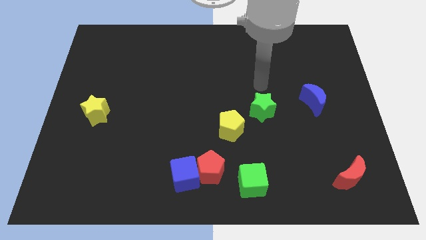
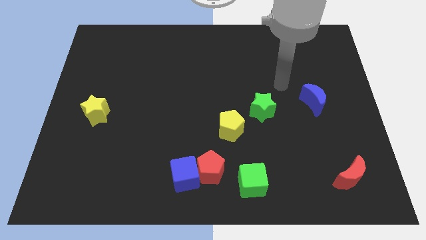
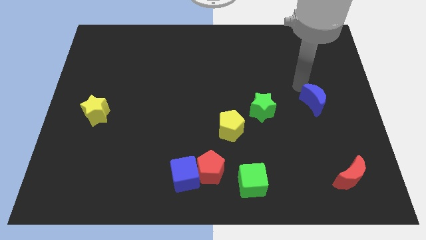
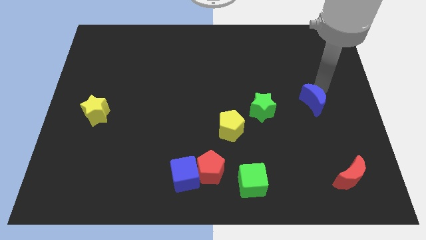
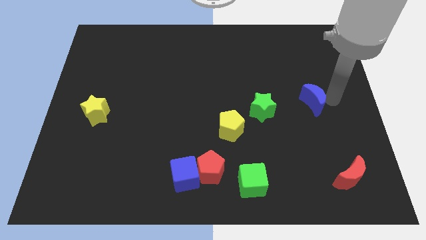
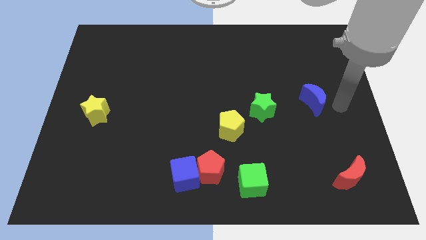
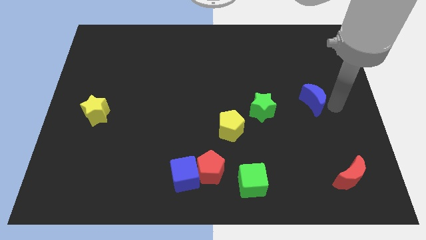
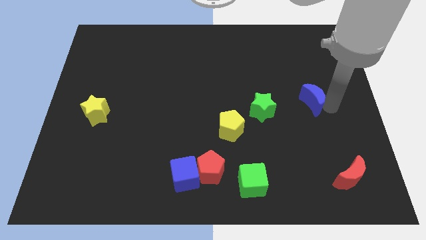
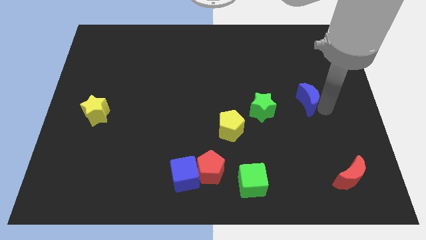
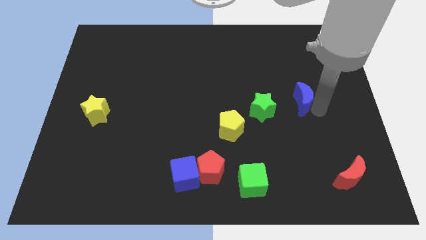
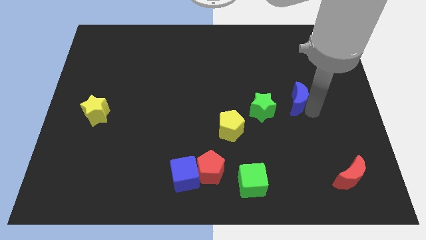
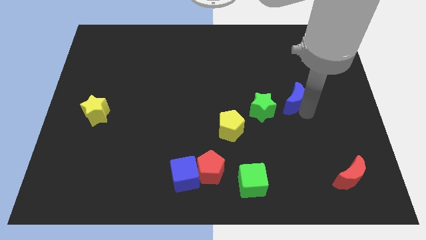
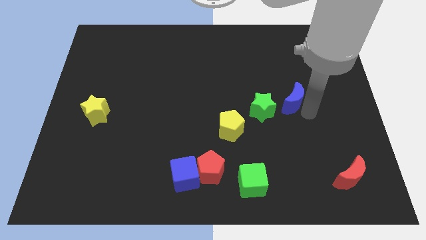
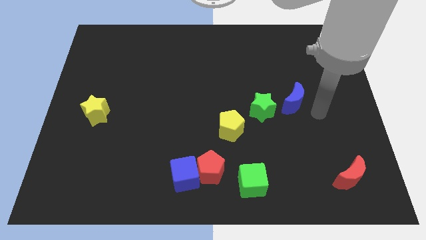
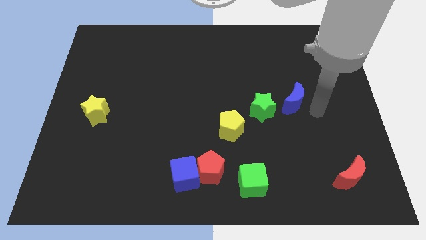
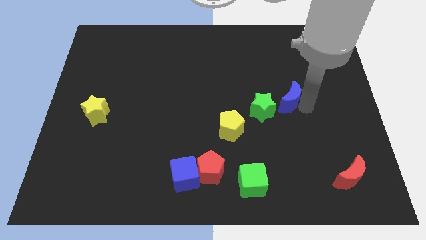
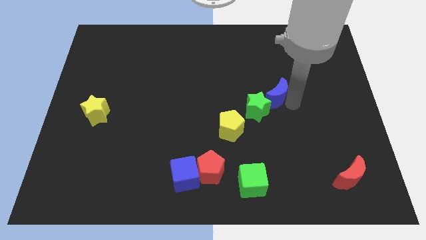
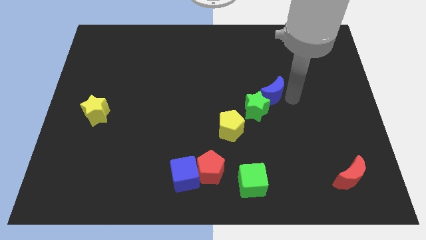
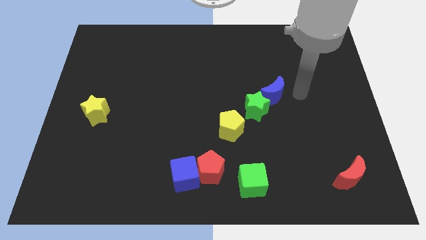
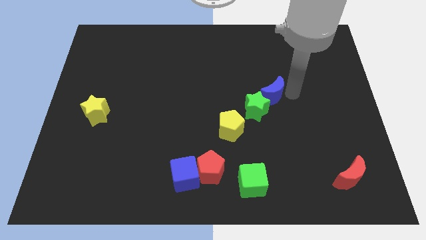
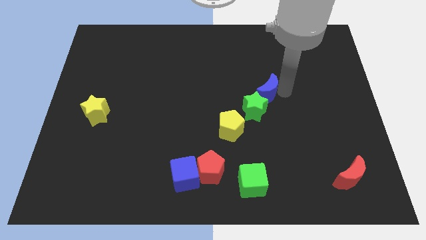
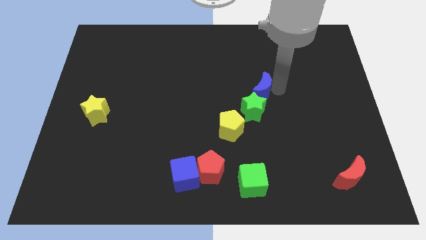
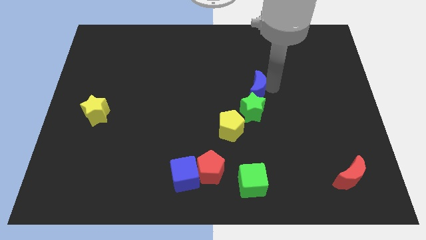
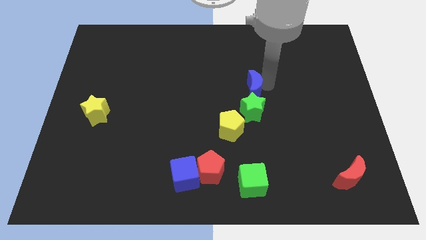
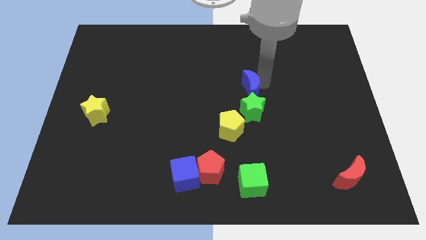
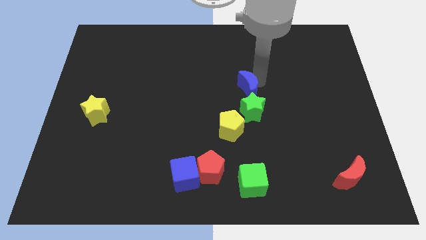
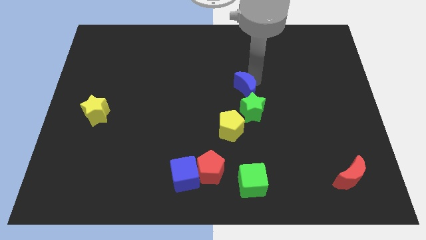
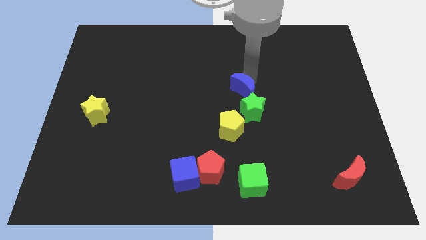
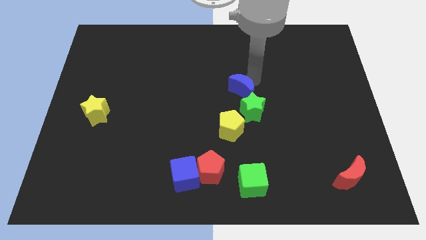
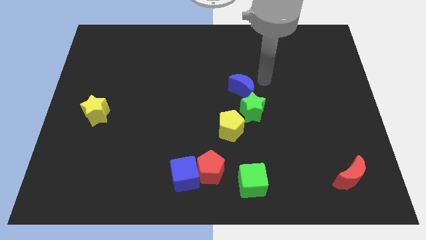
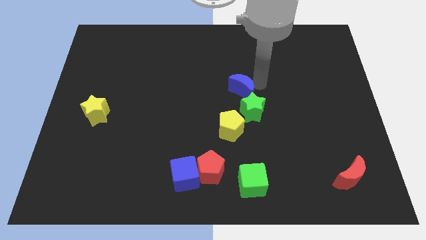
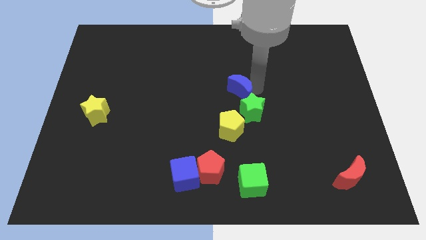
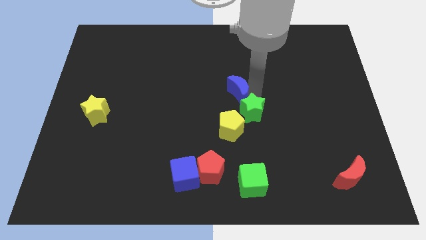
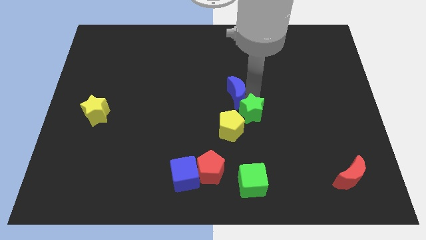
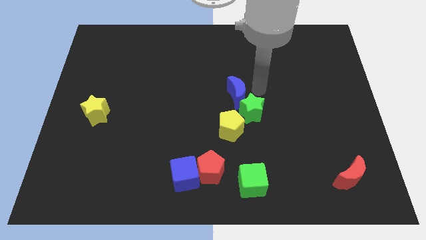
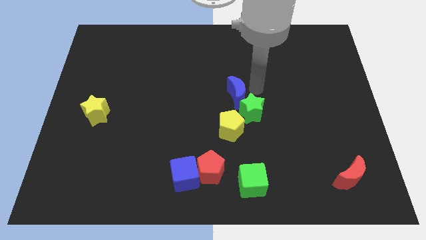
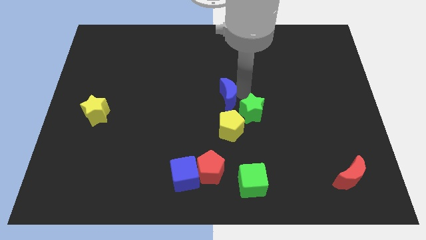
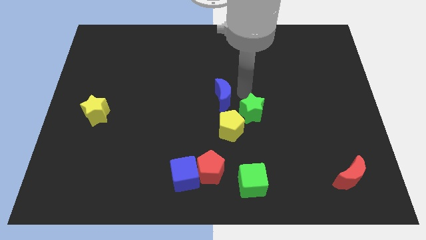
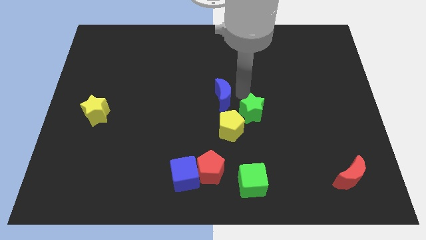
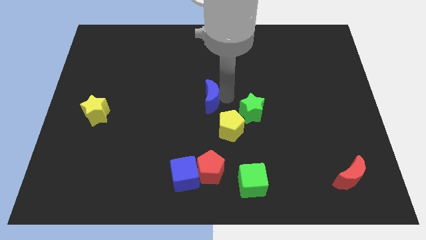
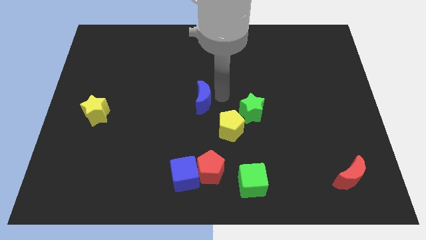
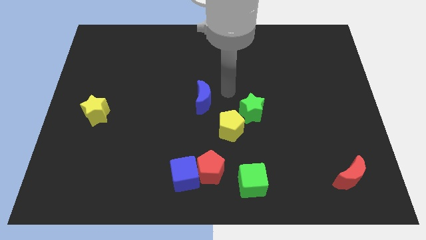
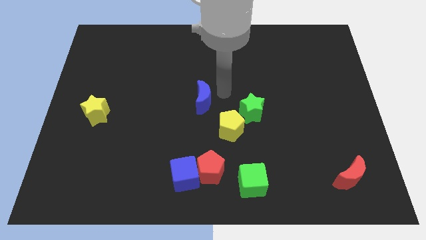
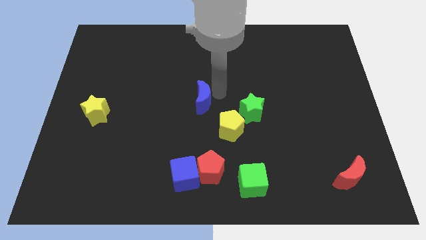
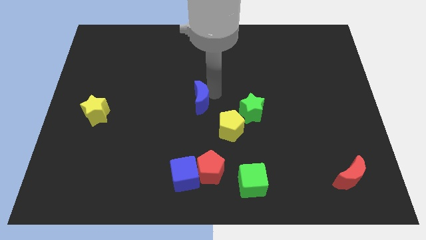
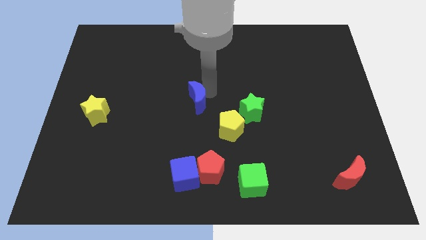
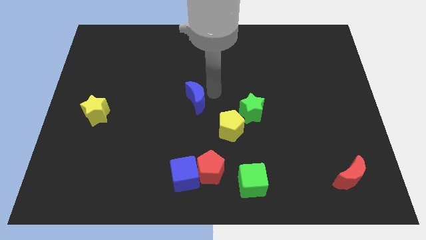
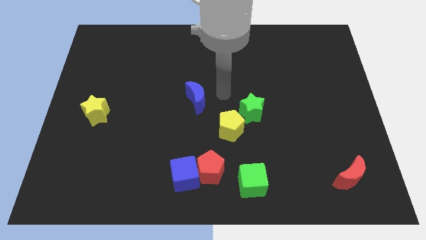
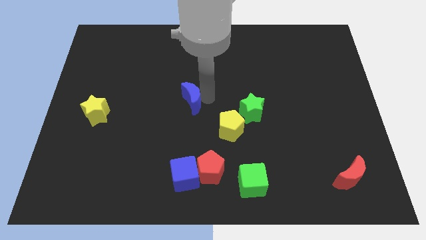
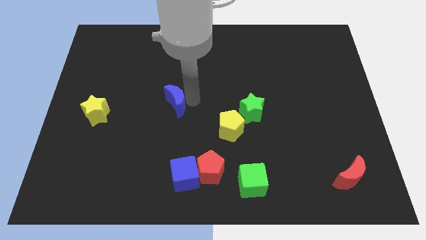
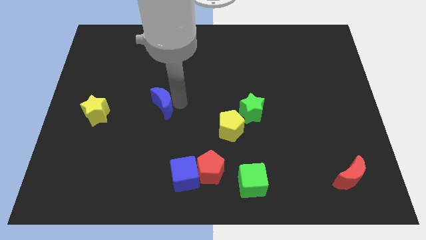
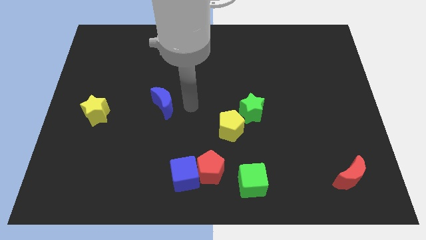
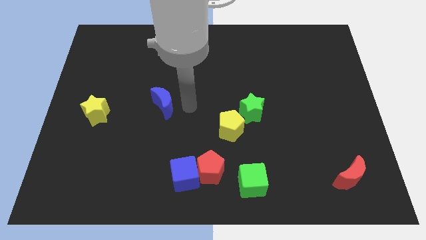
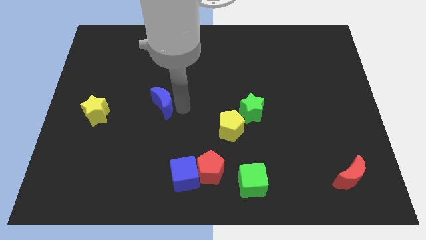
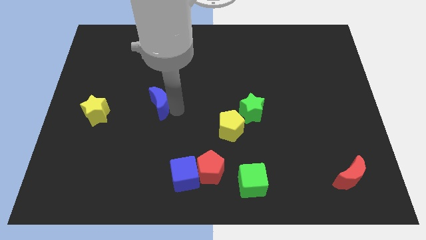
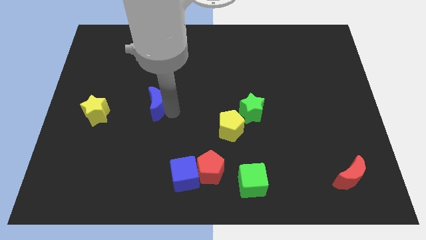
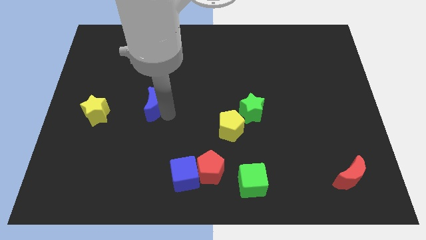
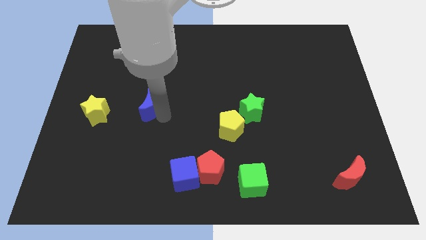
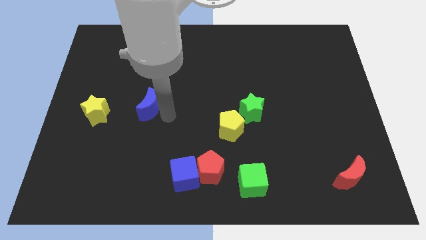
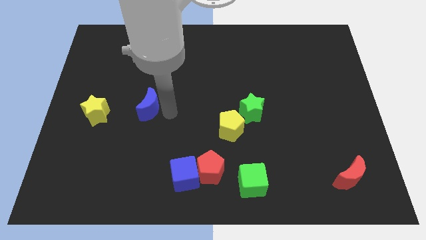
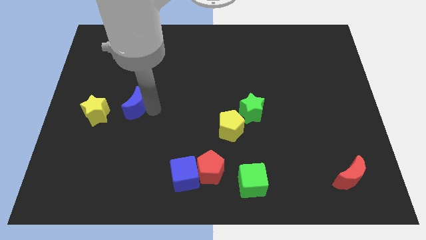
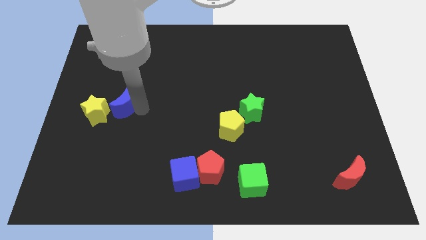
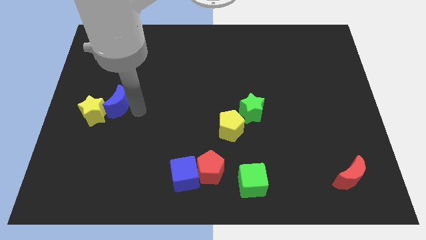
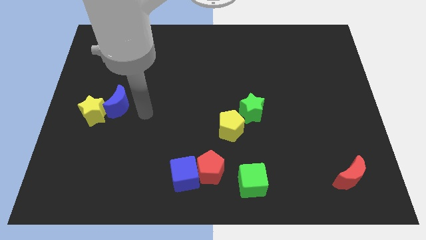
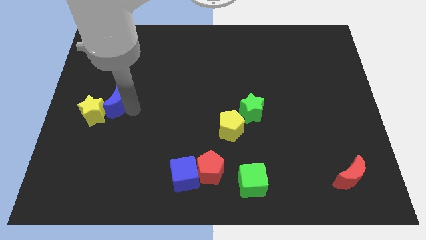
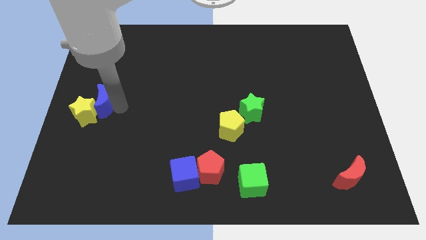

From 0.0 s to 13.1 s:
move the blue moon to the center left
